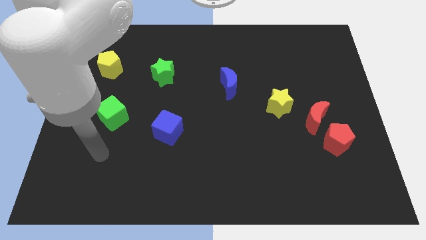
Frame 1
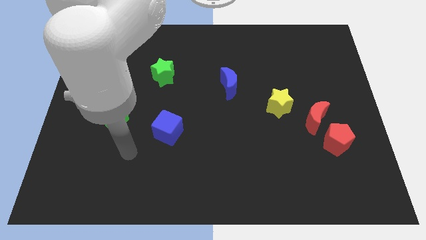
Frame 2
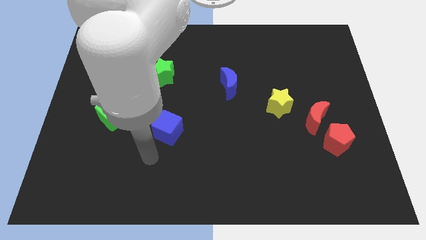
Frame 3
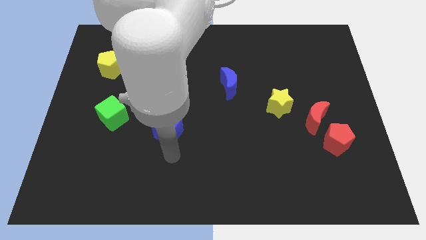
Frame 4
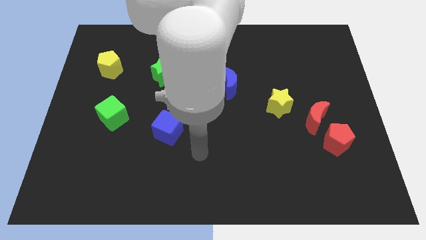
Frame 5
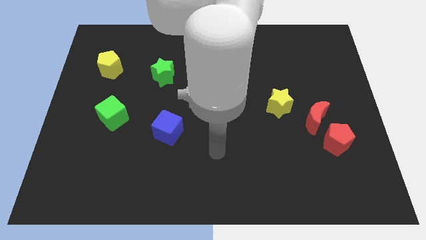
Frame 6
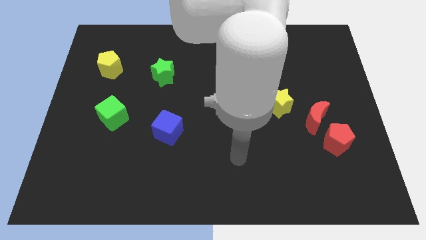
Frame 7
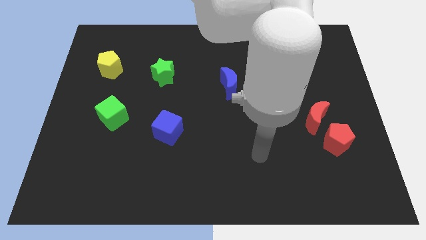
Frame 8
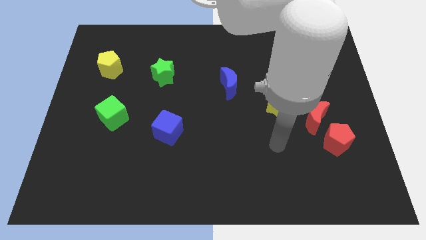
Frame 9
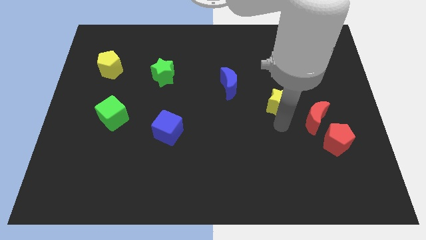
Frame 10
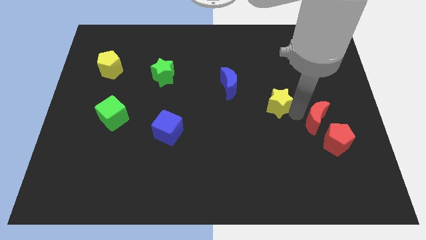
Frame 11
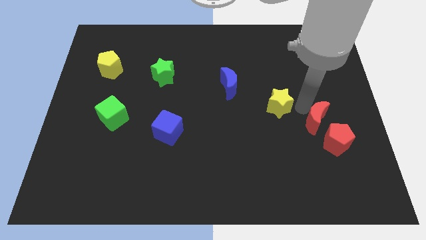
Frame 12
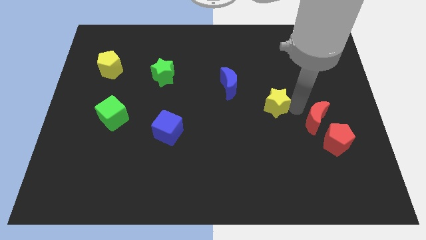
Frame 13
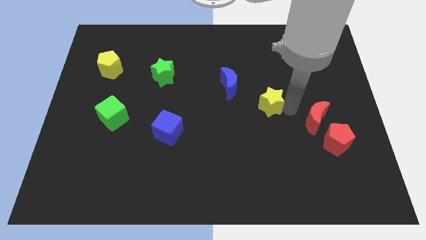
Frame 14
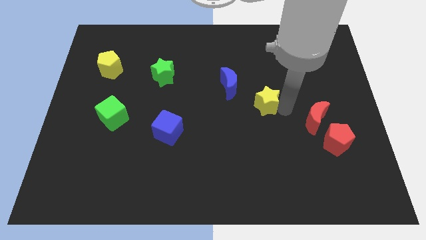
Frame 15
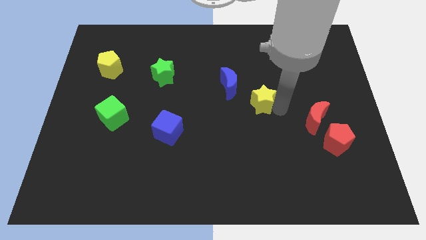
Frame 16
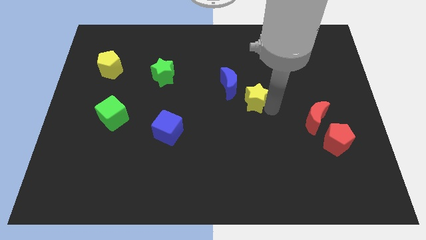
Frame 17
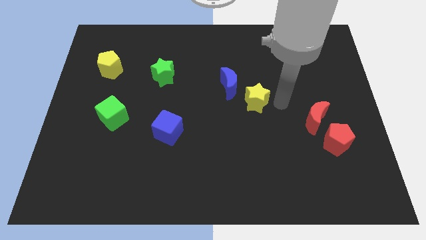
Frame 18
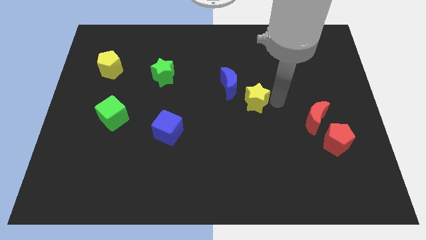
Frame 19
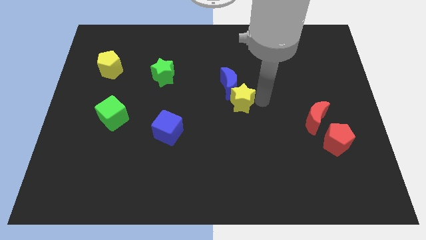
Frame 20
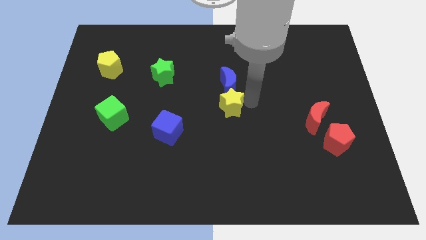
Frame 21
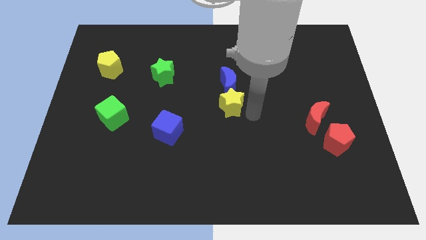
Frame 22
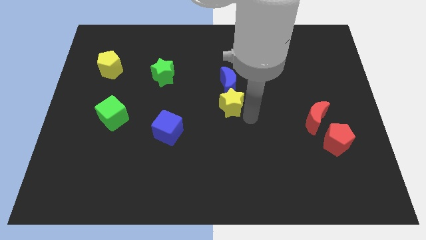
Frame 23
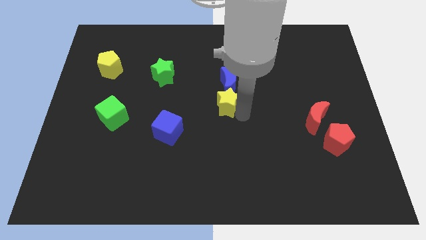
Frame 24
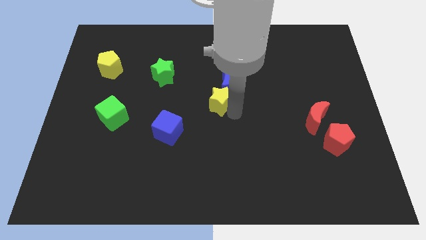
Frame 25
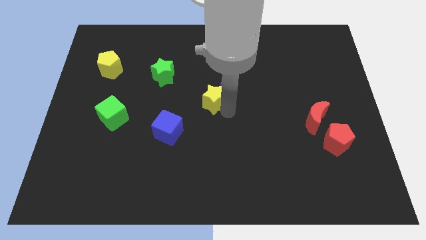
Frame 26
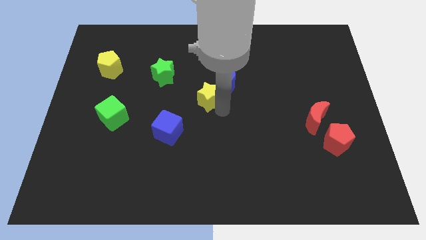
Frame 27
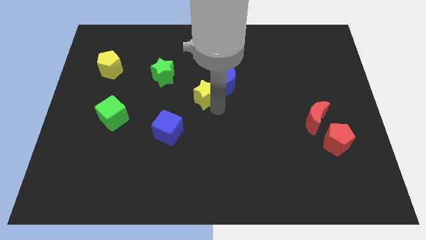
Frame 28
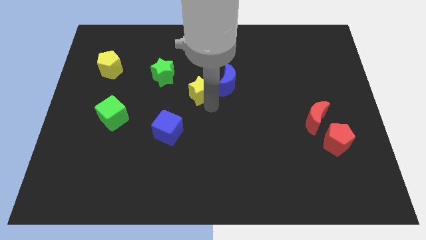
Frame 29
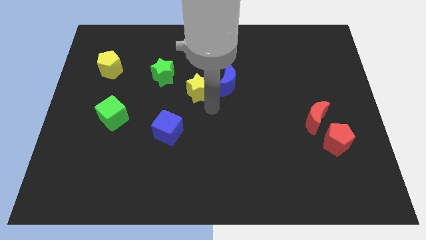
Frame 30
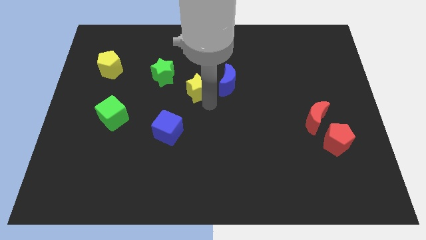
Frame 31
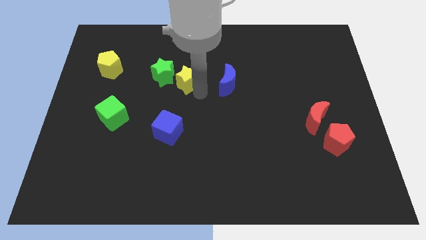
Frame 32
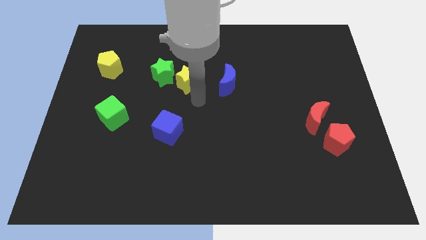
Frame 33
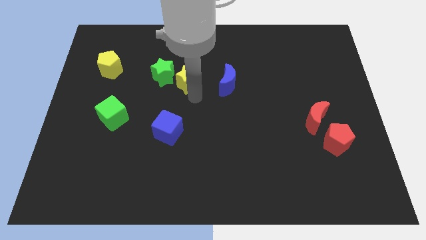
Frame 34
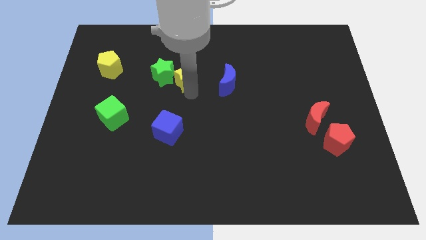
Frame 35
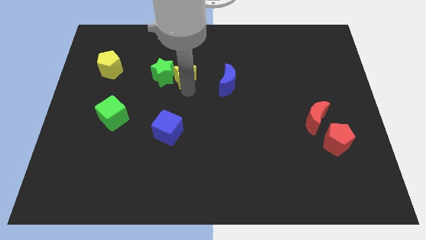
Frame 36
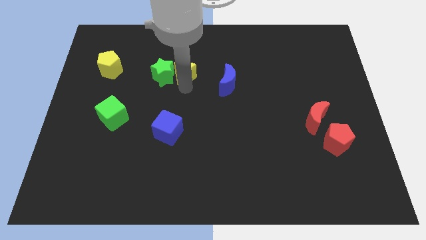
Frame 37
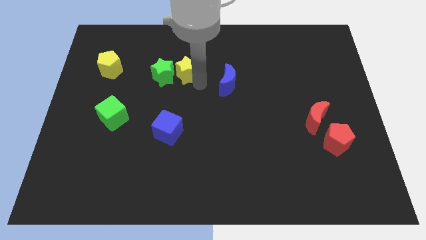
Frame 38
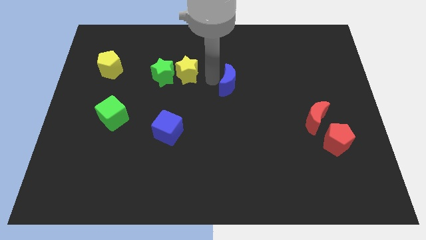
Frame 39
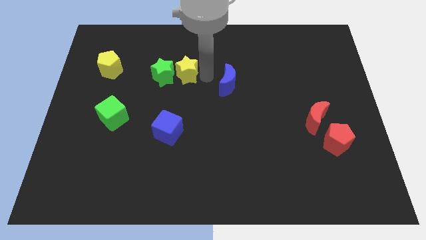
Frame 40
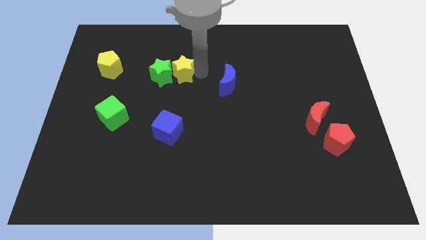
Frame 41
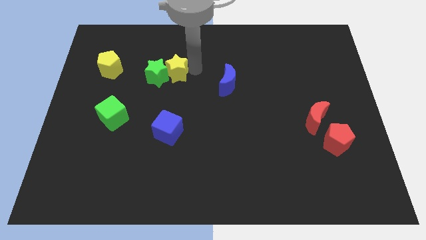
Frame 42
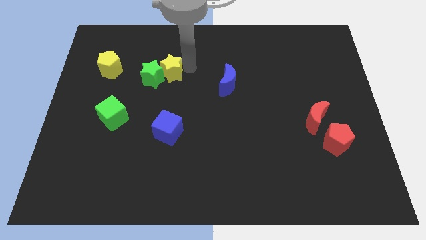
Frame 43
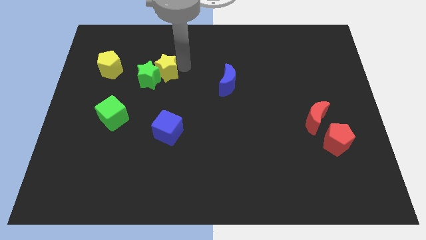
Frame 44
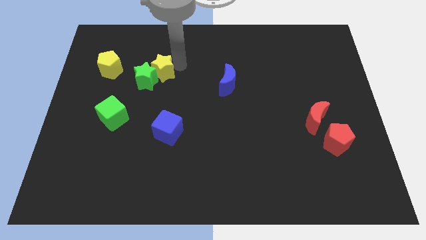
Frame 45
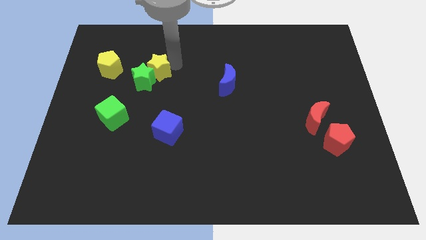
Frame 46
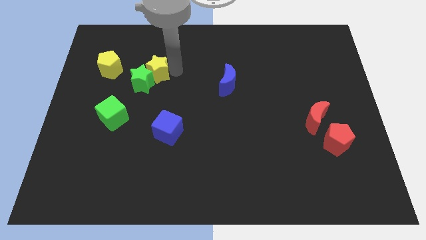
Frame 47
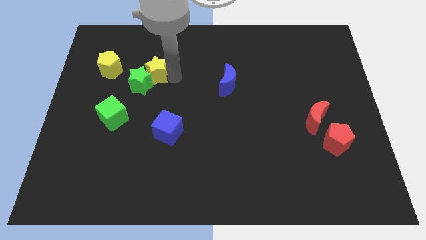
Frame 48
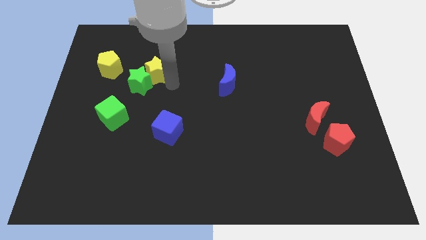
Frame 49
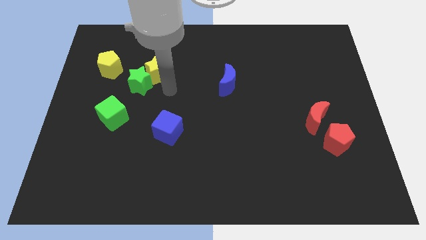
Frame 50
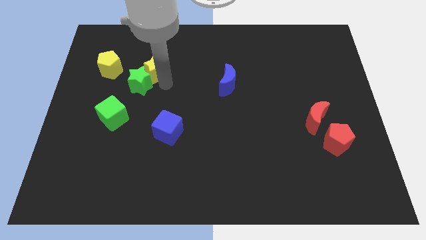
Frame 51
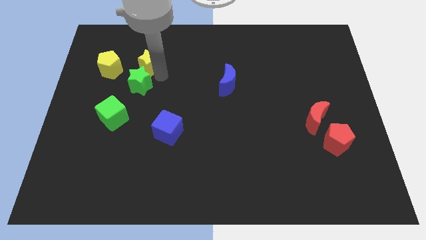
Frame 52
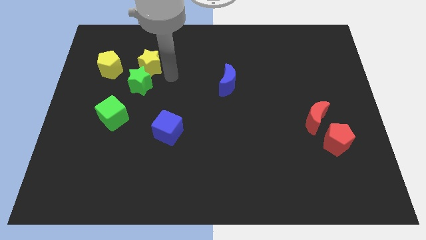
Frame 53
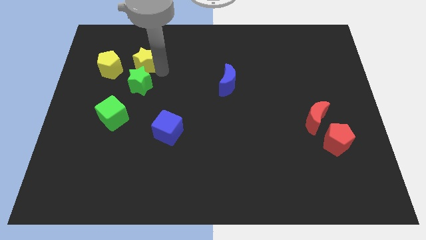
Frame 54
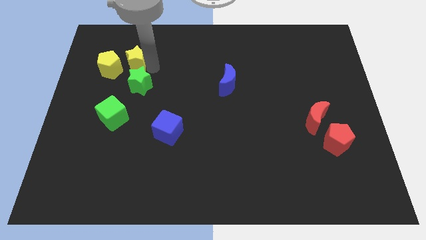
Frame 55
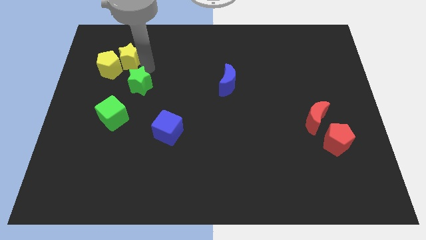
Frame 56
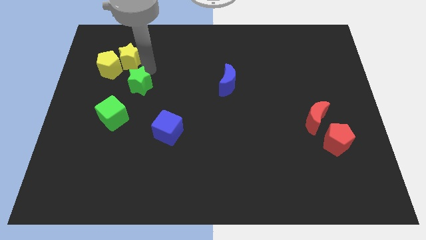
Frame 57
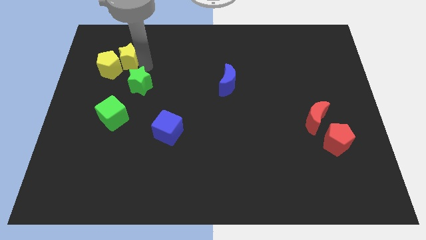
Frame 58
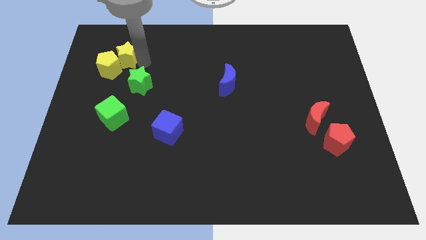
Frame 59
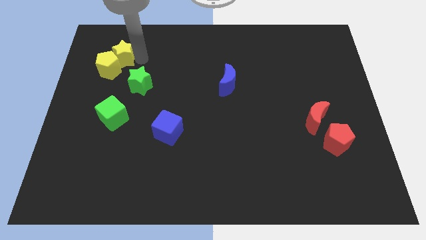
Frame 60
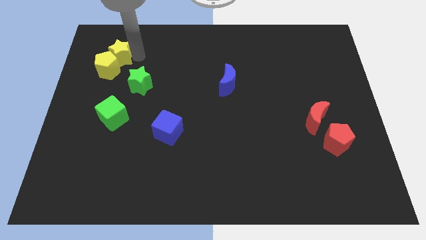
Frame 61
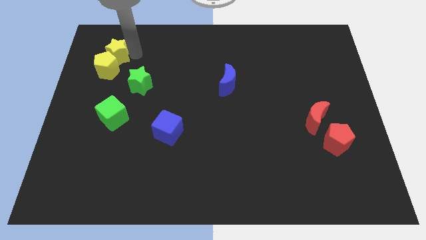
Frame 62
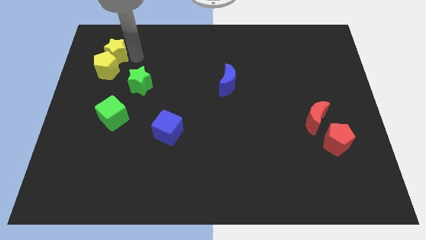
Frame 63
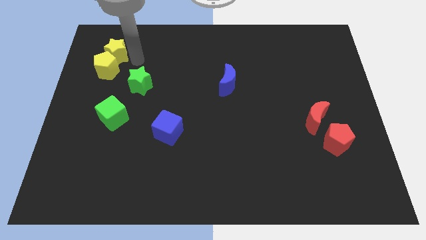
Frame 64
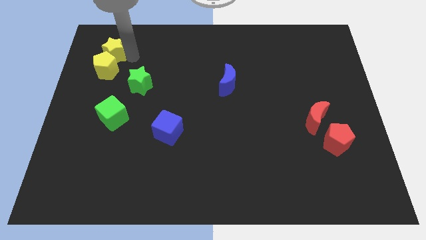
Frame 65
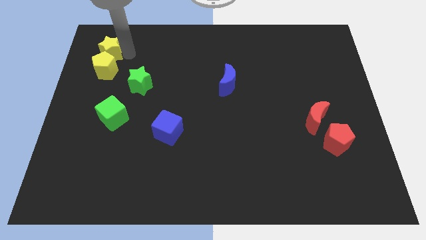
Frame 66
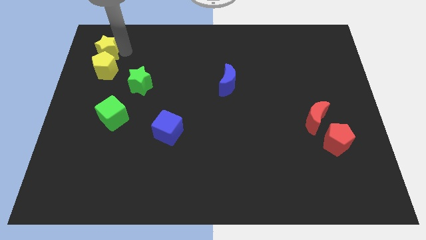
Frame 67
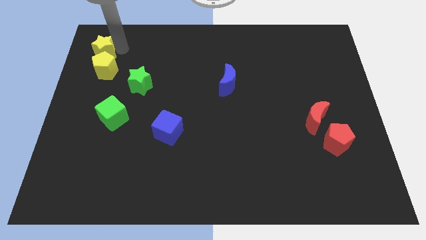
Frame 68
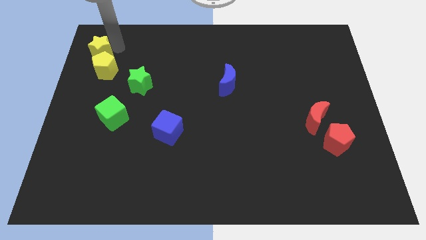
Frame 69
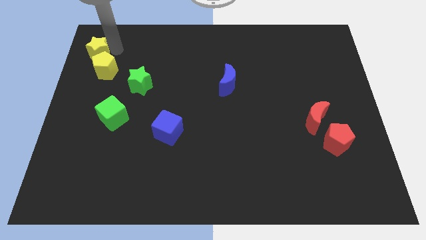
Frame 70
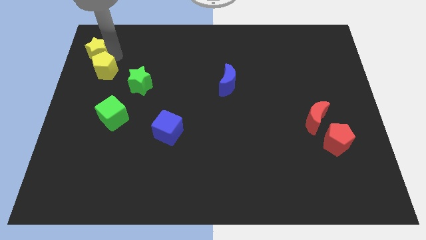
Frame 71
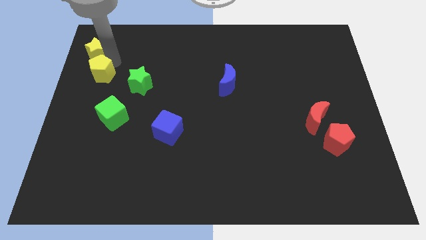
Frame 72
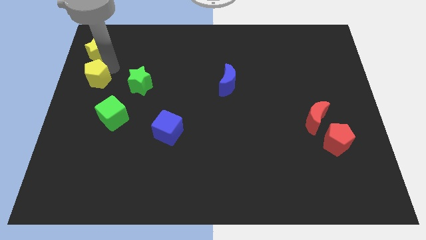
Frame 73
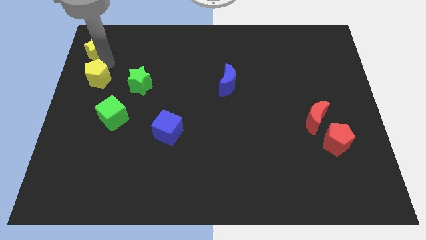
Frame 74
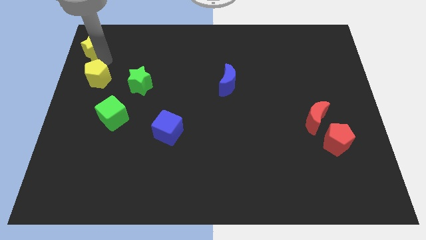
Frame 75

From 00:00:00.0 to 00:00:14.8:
slide the yellow star to the top left
